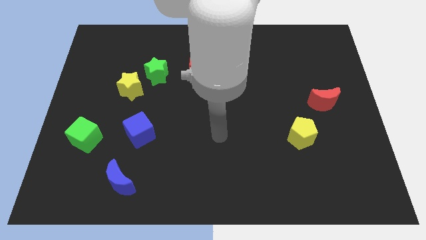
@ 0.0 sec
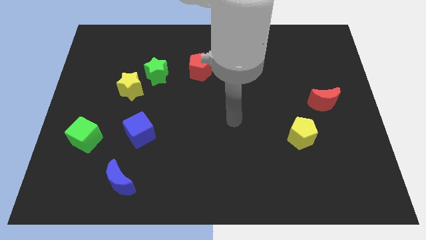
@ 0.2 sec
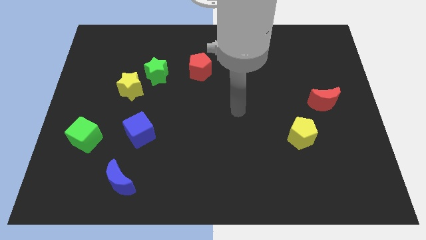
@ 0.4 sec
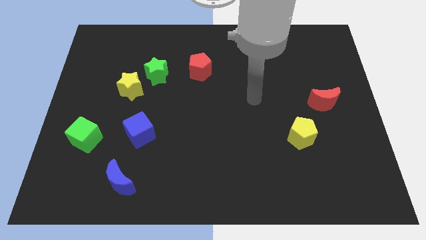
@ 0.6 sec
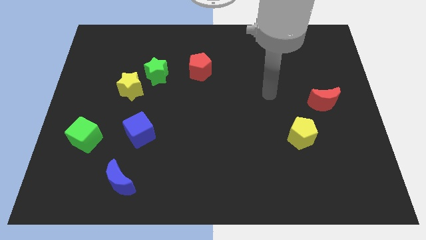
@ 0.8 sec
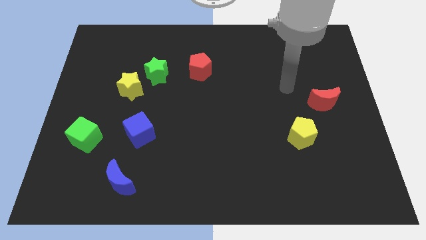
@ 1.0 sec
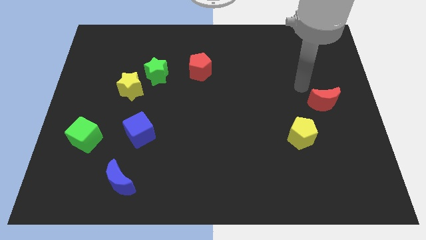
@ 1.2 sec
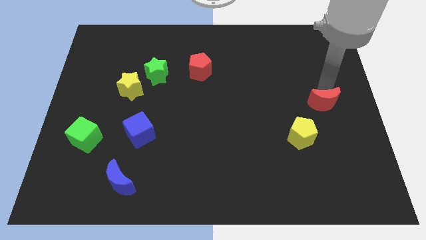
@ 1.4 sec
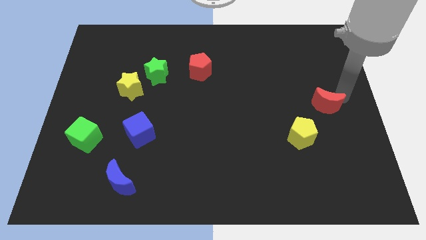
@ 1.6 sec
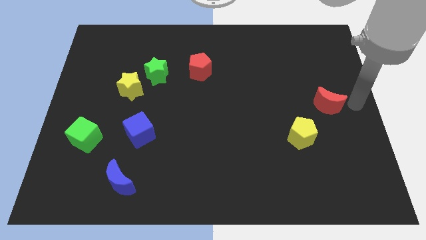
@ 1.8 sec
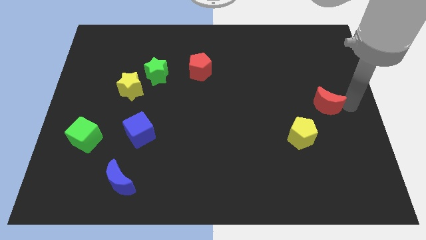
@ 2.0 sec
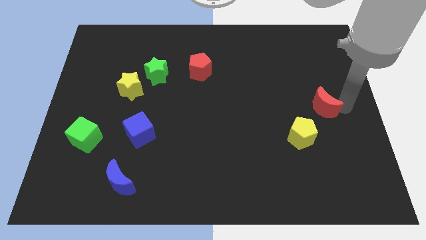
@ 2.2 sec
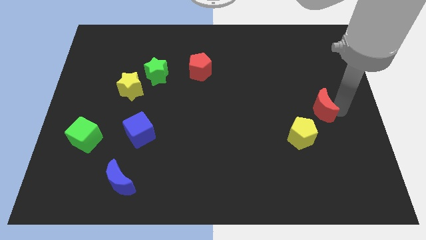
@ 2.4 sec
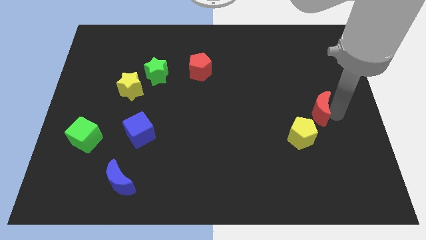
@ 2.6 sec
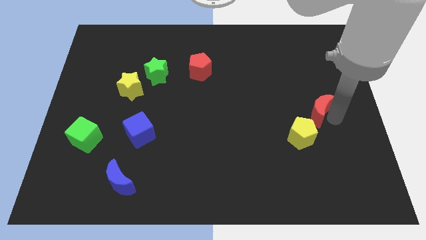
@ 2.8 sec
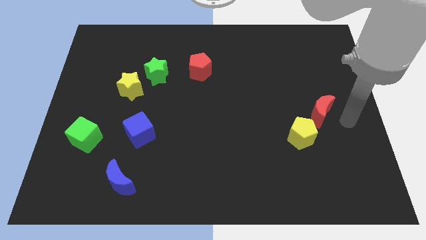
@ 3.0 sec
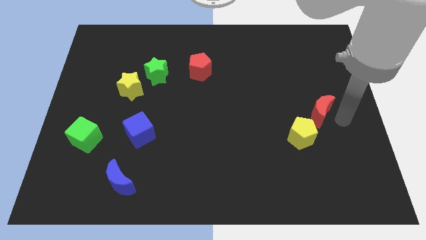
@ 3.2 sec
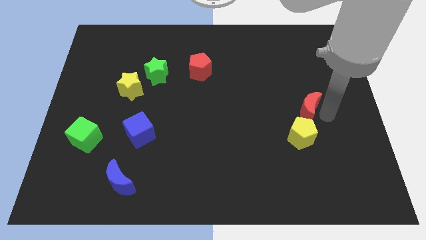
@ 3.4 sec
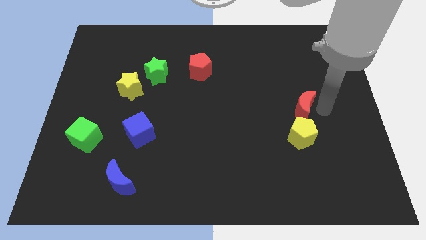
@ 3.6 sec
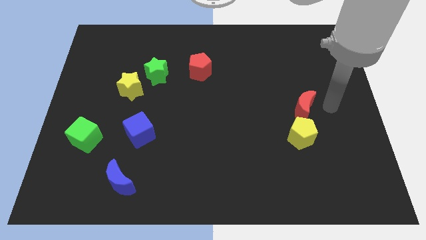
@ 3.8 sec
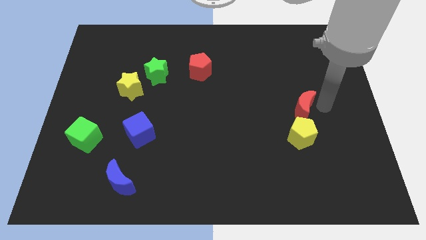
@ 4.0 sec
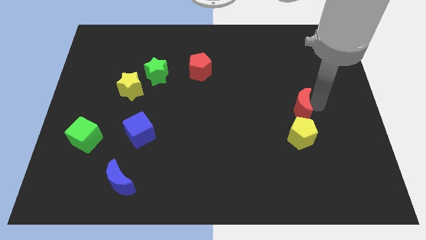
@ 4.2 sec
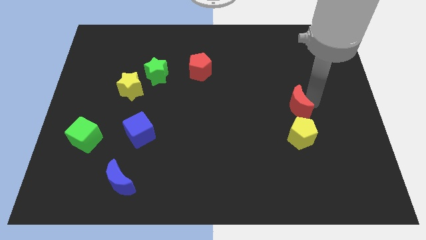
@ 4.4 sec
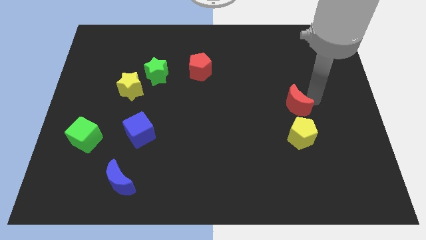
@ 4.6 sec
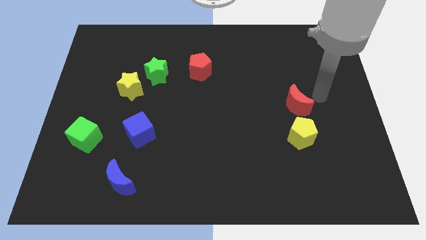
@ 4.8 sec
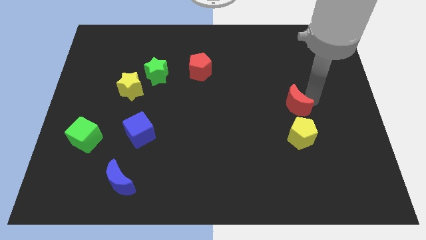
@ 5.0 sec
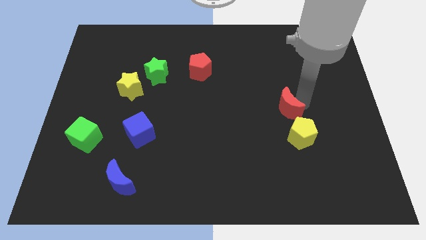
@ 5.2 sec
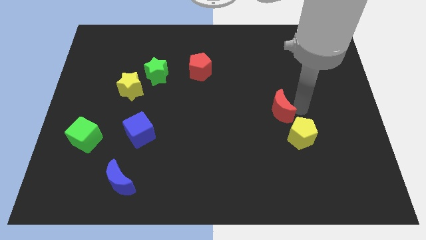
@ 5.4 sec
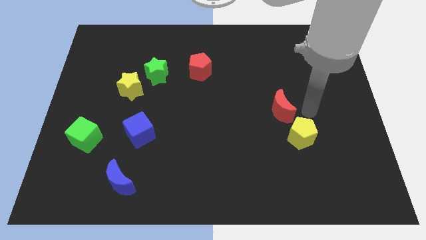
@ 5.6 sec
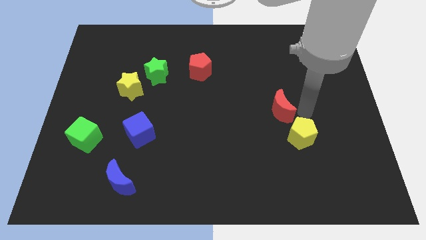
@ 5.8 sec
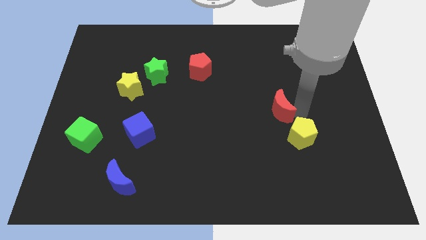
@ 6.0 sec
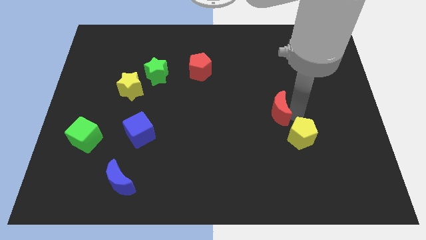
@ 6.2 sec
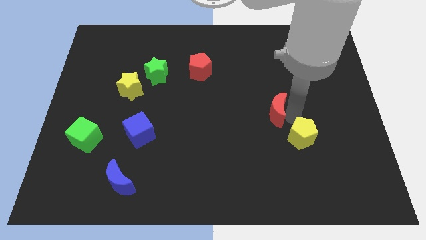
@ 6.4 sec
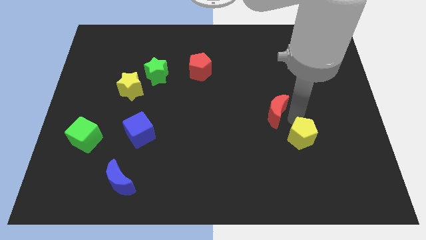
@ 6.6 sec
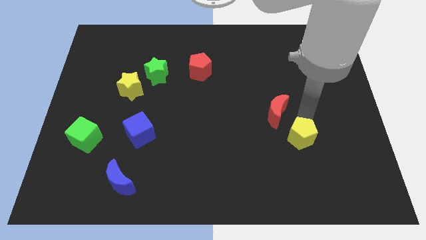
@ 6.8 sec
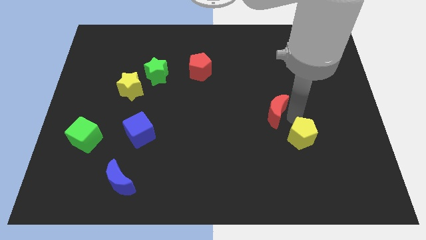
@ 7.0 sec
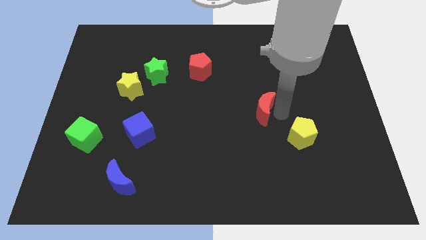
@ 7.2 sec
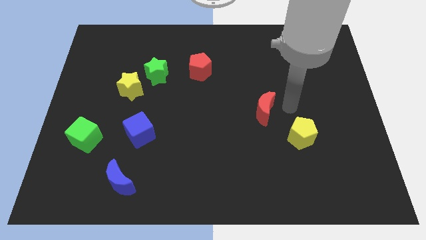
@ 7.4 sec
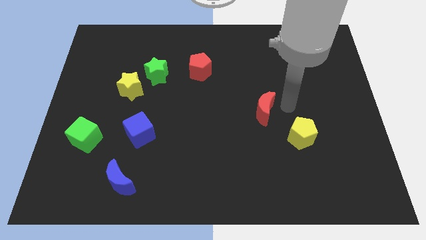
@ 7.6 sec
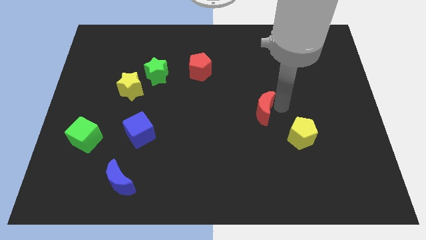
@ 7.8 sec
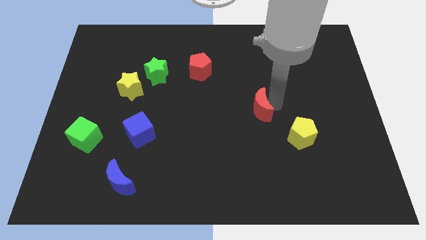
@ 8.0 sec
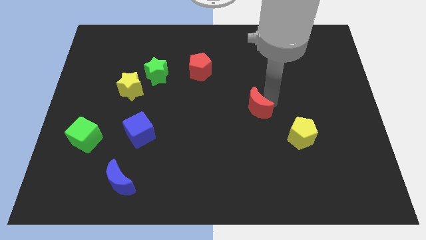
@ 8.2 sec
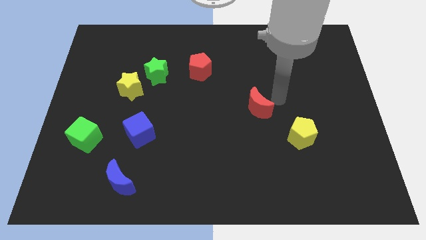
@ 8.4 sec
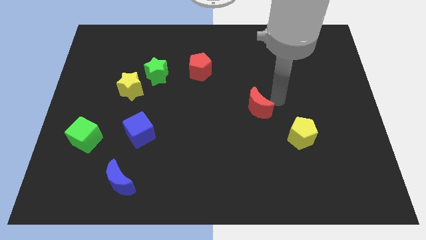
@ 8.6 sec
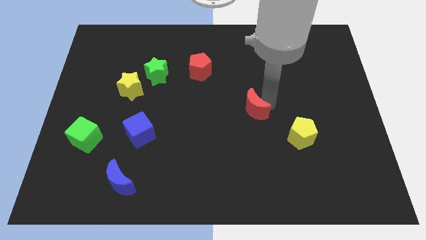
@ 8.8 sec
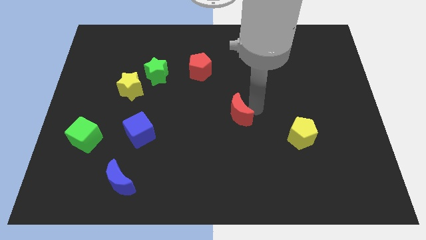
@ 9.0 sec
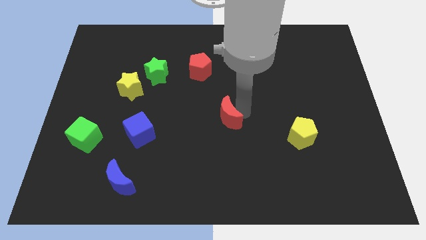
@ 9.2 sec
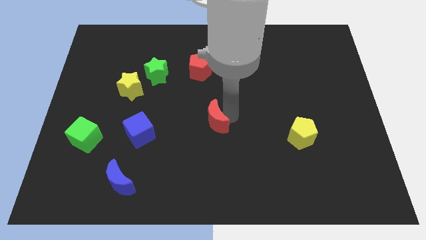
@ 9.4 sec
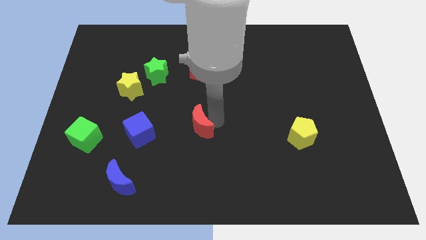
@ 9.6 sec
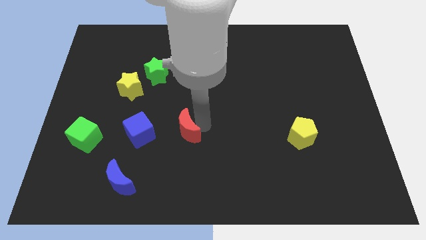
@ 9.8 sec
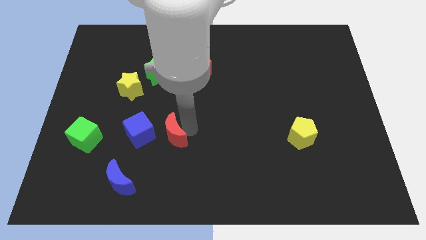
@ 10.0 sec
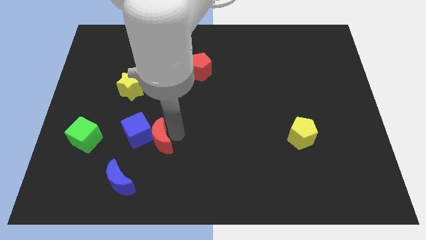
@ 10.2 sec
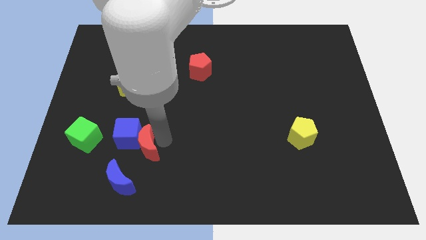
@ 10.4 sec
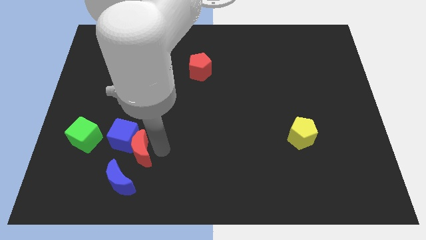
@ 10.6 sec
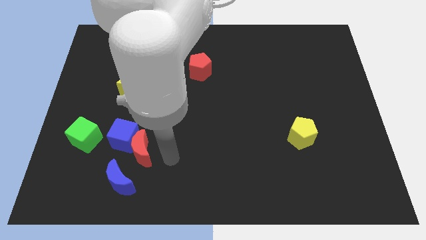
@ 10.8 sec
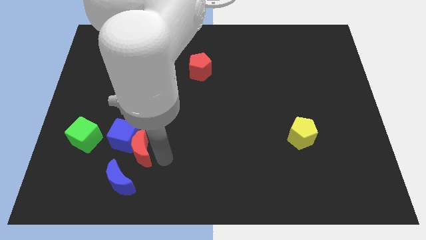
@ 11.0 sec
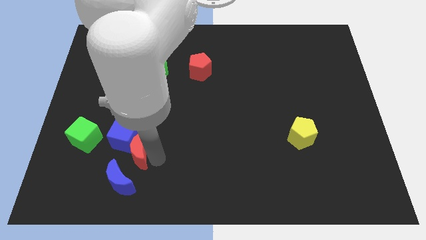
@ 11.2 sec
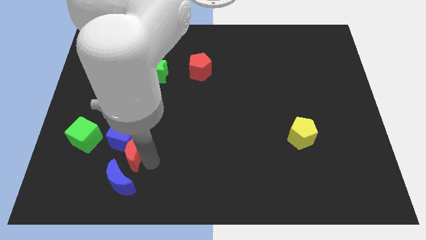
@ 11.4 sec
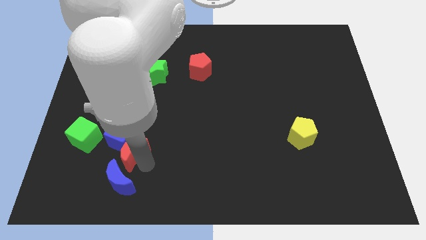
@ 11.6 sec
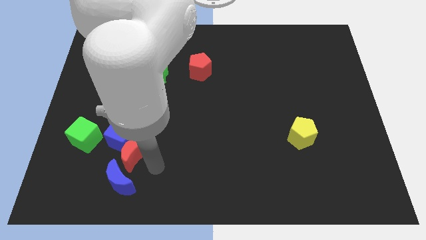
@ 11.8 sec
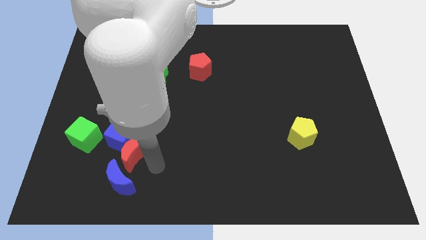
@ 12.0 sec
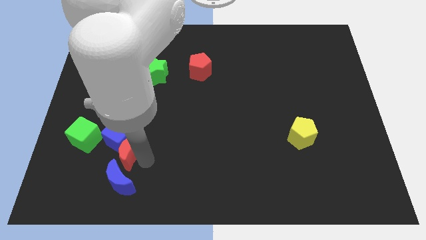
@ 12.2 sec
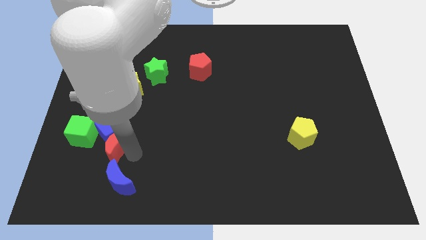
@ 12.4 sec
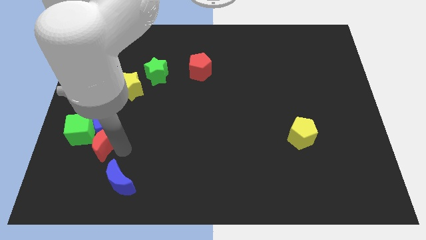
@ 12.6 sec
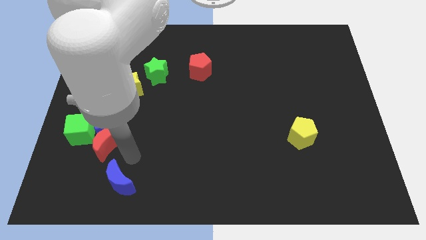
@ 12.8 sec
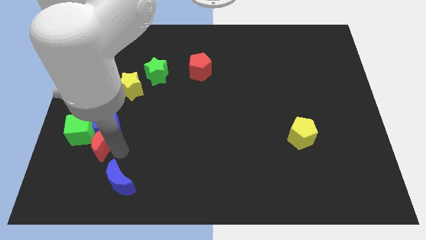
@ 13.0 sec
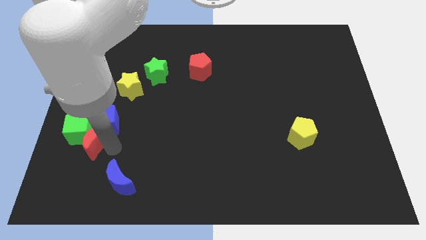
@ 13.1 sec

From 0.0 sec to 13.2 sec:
slide the red moon next to the green cube
